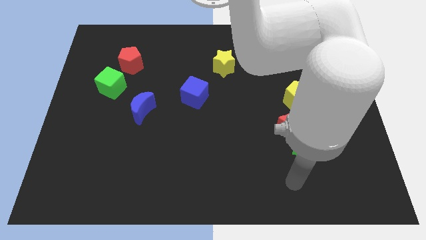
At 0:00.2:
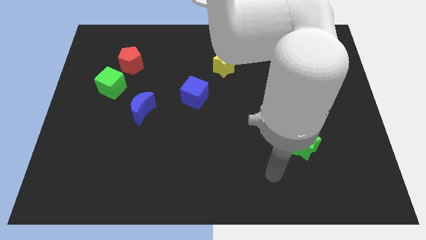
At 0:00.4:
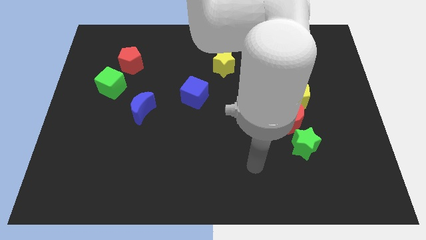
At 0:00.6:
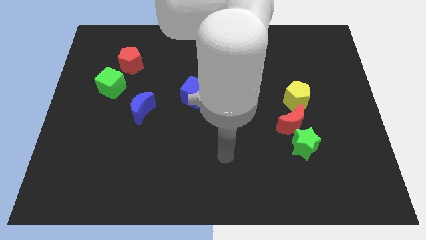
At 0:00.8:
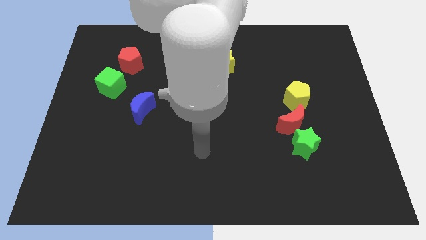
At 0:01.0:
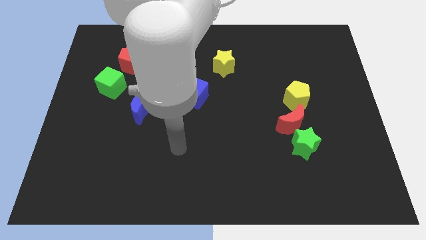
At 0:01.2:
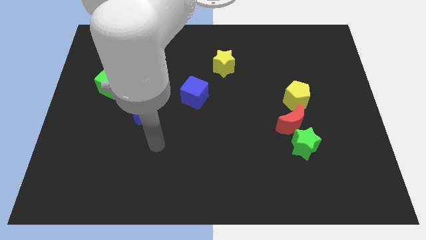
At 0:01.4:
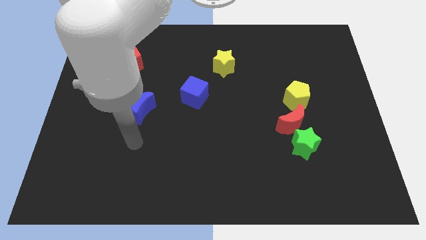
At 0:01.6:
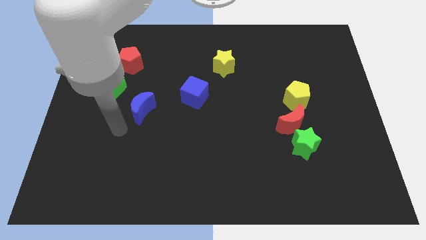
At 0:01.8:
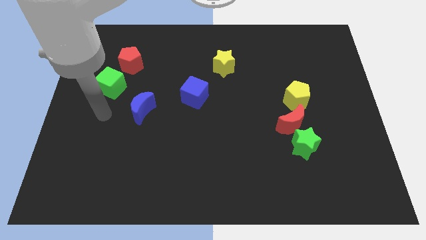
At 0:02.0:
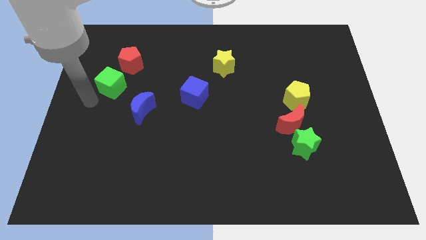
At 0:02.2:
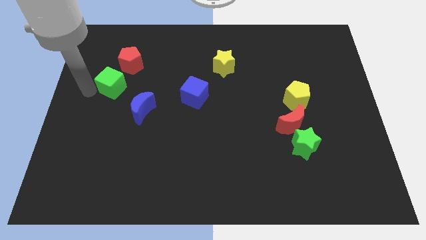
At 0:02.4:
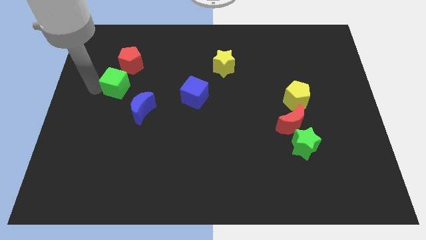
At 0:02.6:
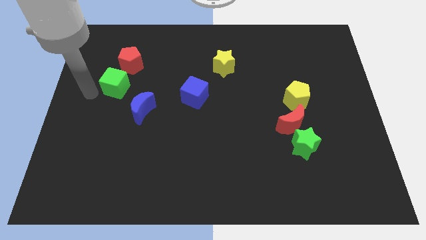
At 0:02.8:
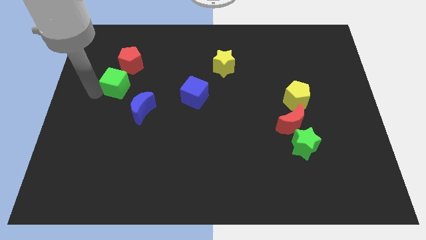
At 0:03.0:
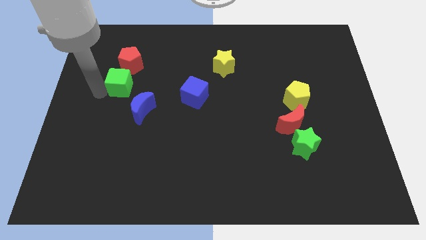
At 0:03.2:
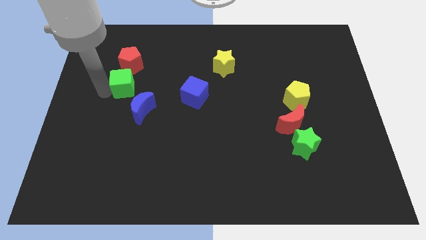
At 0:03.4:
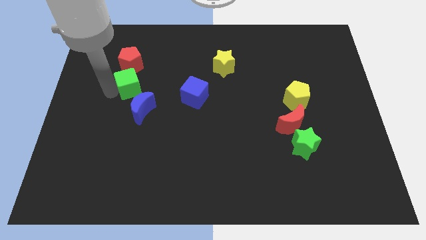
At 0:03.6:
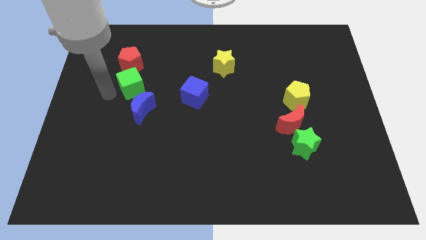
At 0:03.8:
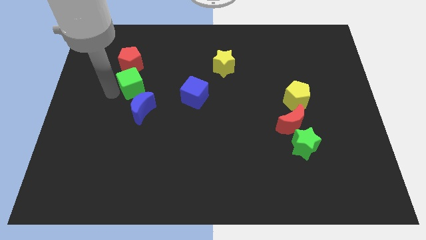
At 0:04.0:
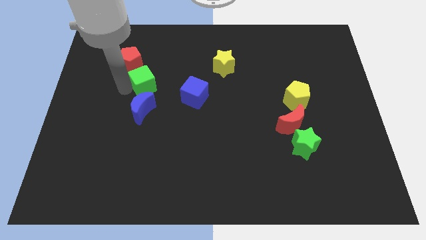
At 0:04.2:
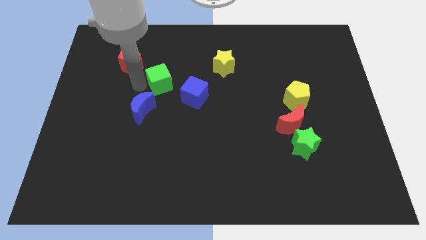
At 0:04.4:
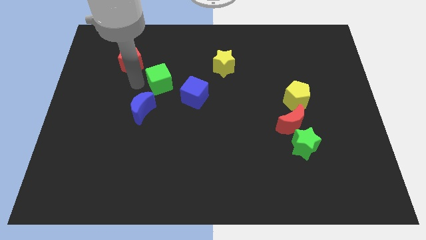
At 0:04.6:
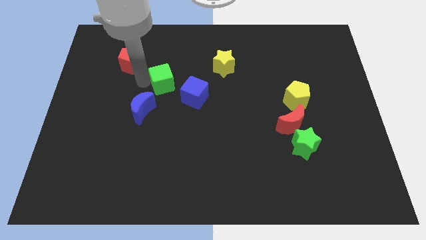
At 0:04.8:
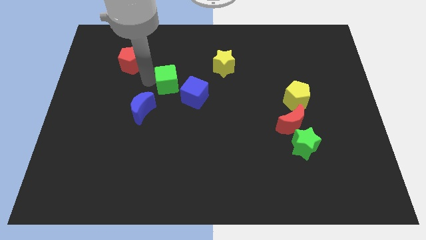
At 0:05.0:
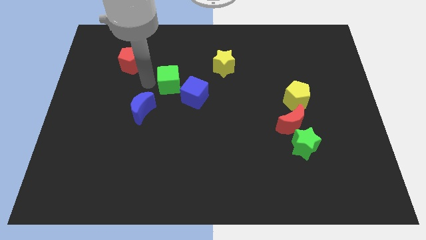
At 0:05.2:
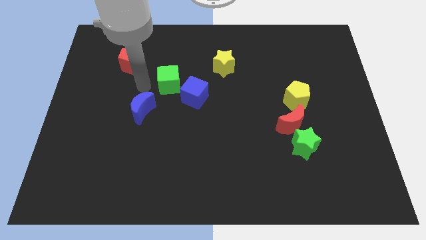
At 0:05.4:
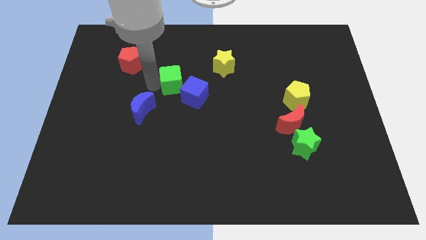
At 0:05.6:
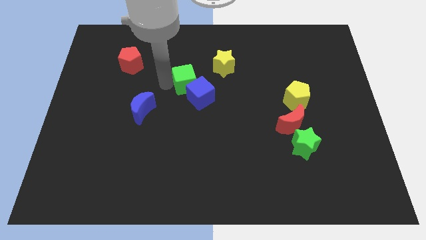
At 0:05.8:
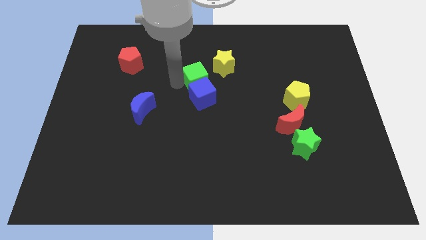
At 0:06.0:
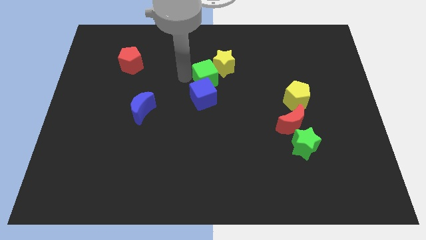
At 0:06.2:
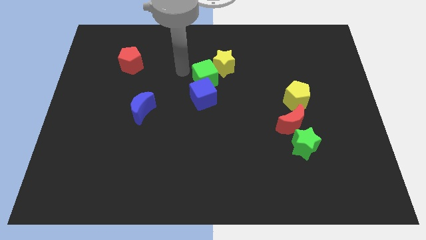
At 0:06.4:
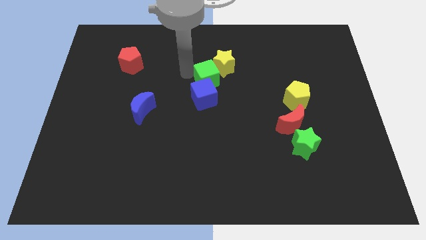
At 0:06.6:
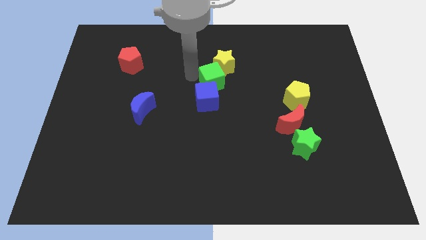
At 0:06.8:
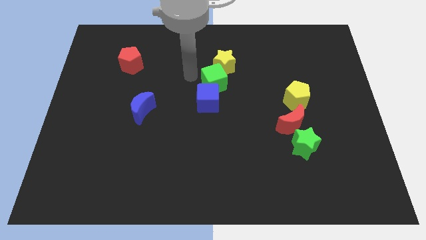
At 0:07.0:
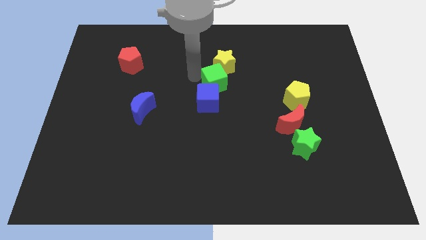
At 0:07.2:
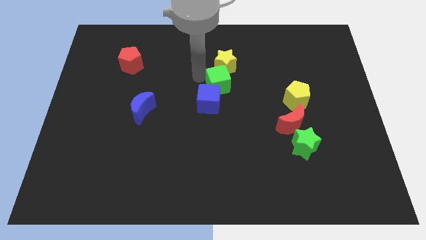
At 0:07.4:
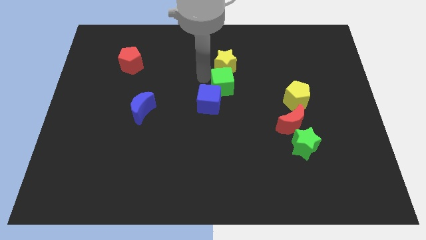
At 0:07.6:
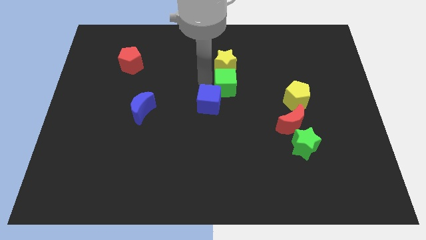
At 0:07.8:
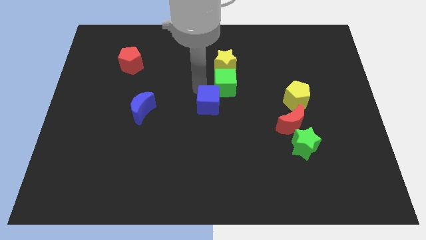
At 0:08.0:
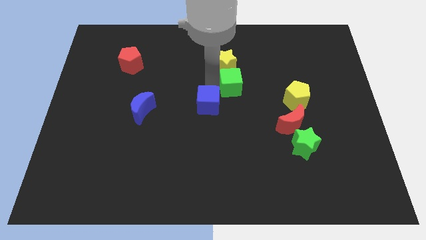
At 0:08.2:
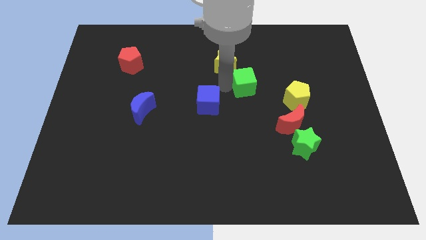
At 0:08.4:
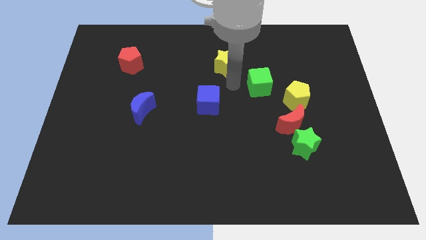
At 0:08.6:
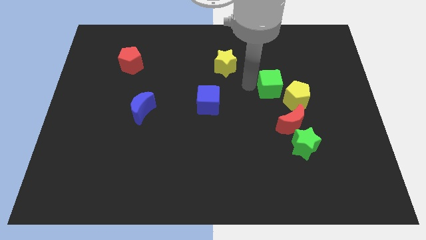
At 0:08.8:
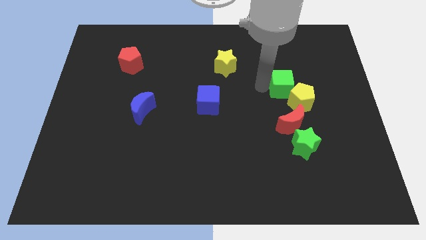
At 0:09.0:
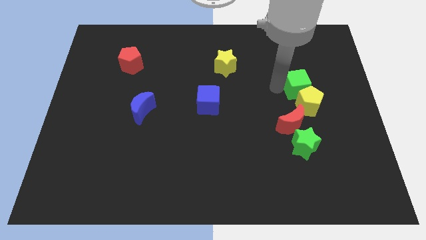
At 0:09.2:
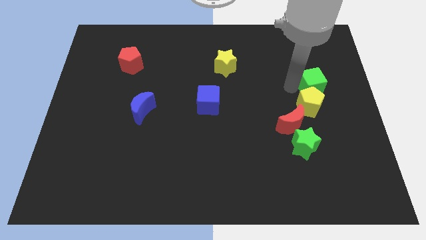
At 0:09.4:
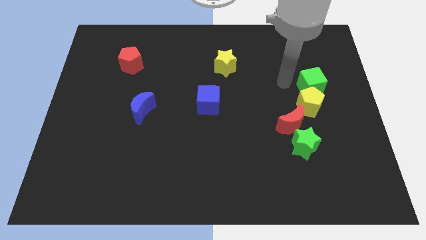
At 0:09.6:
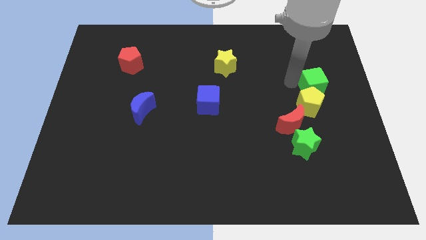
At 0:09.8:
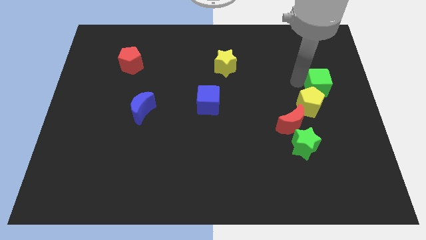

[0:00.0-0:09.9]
move the green cube to the right side of the board

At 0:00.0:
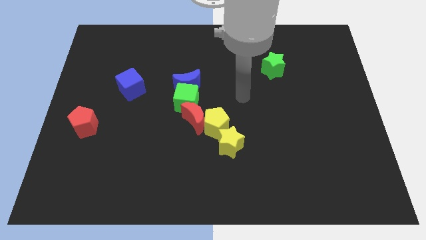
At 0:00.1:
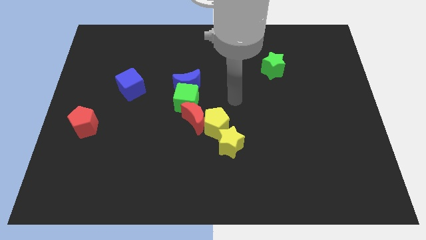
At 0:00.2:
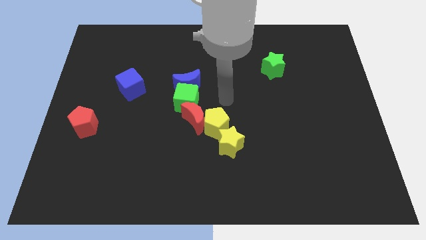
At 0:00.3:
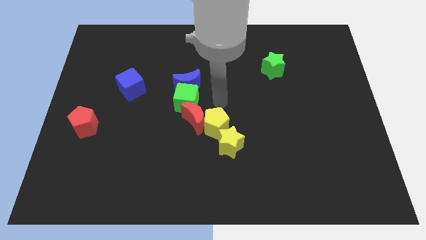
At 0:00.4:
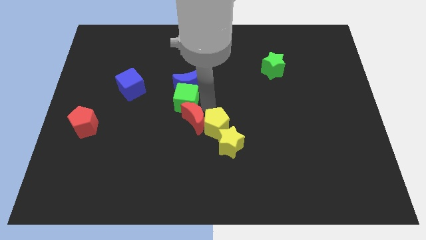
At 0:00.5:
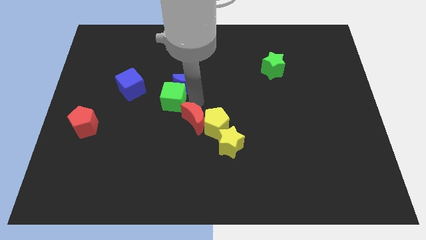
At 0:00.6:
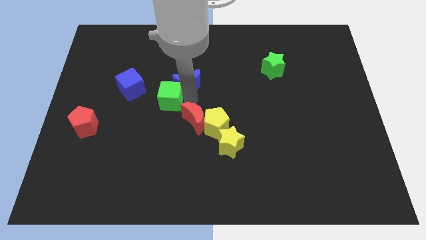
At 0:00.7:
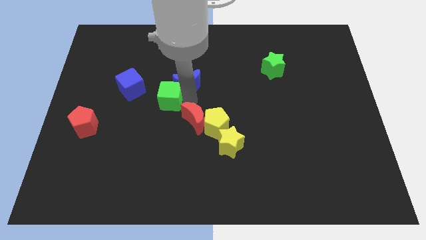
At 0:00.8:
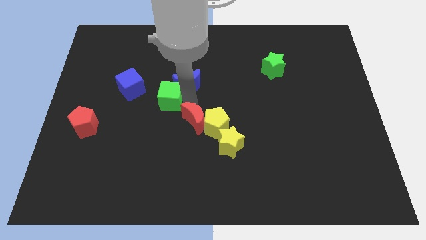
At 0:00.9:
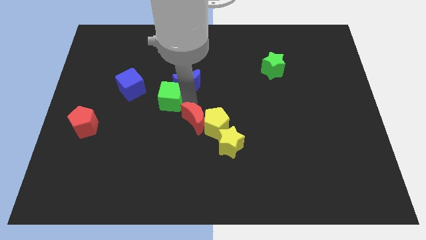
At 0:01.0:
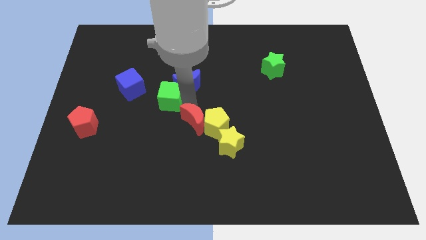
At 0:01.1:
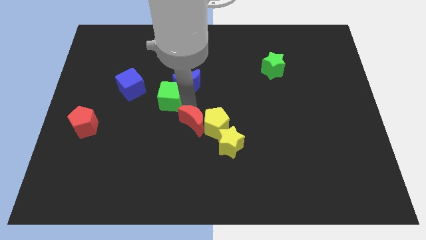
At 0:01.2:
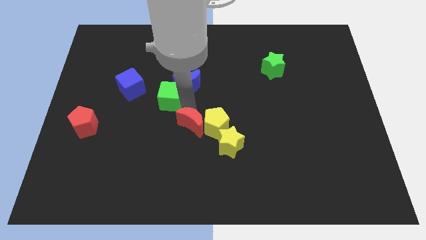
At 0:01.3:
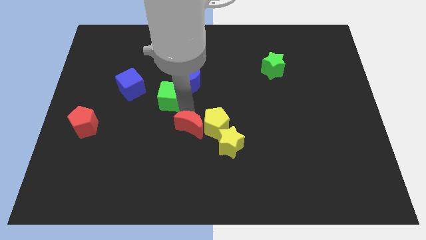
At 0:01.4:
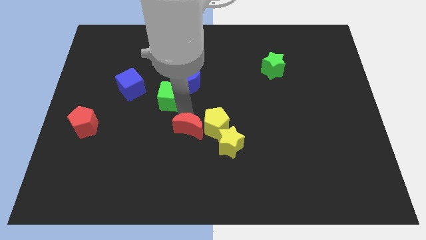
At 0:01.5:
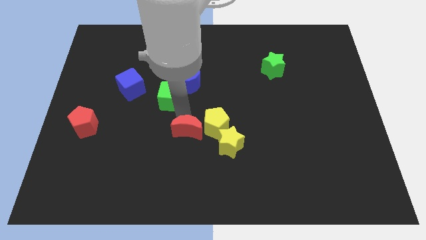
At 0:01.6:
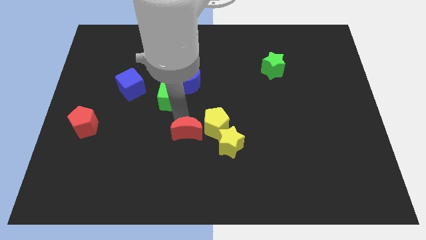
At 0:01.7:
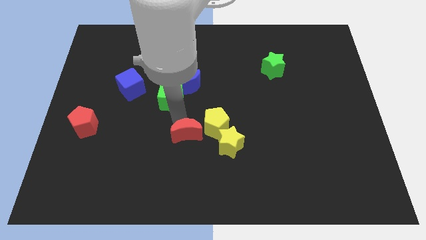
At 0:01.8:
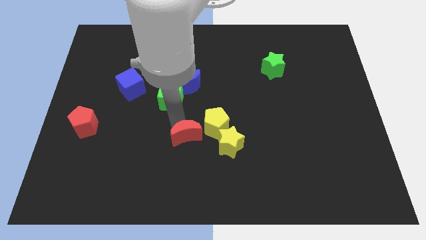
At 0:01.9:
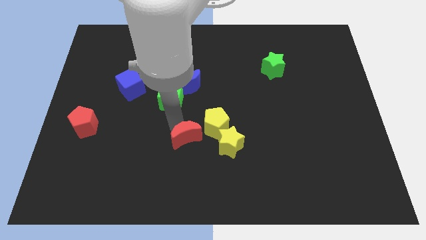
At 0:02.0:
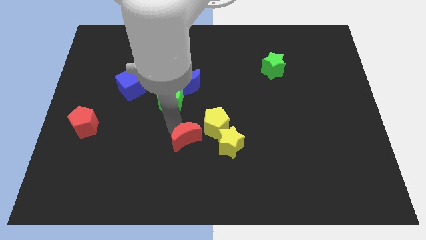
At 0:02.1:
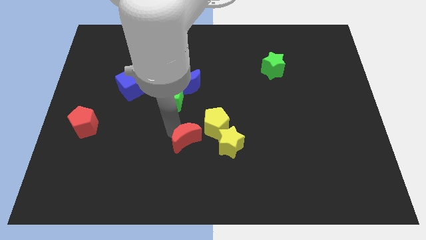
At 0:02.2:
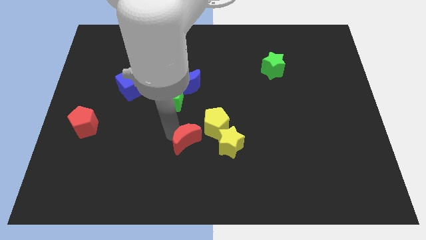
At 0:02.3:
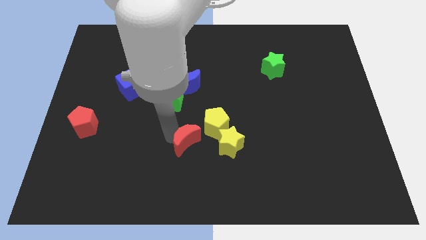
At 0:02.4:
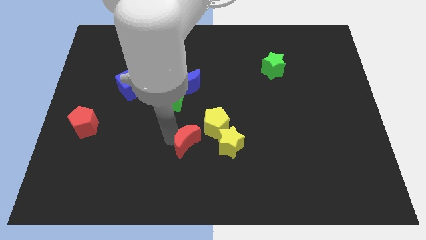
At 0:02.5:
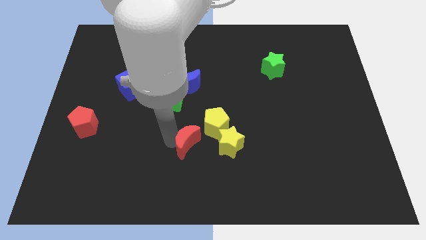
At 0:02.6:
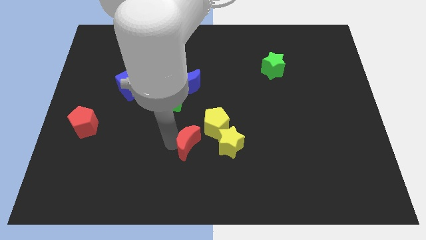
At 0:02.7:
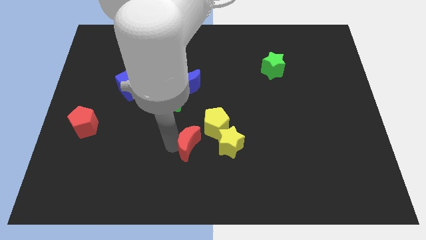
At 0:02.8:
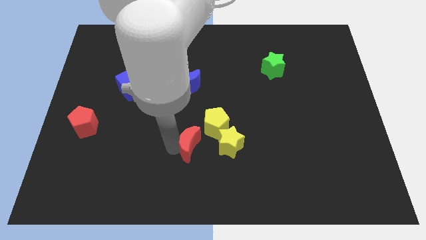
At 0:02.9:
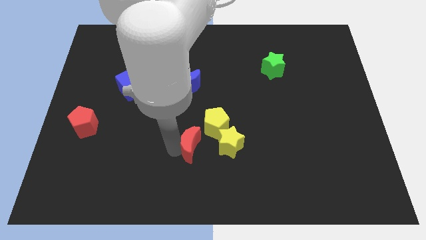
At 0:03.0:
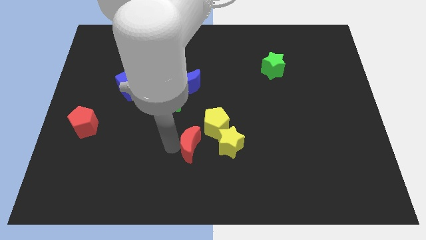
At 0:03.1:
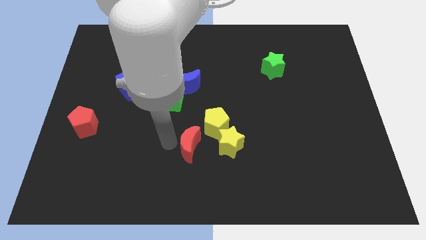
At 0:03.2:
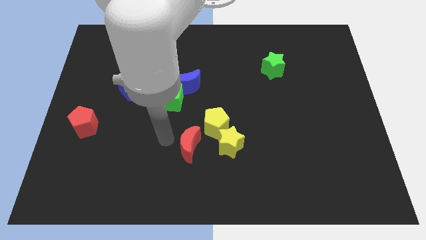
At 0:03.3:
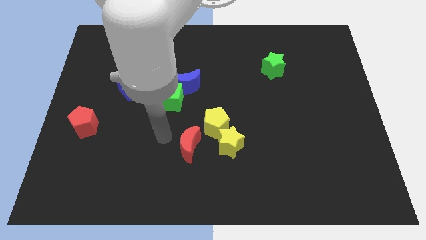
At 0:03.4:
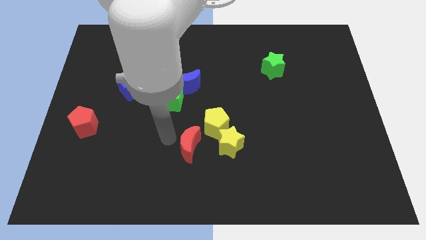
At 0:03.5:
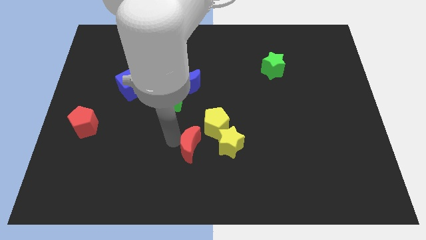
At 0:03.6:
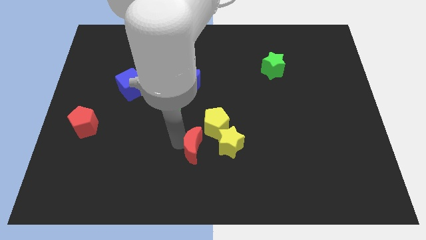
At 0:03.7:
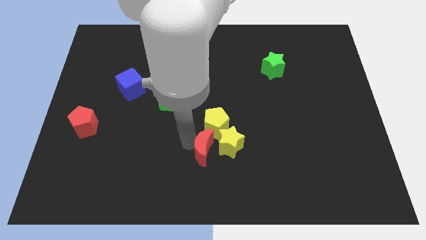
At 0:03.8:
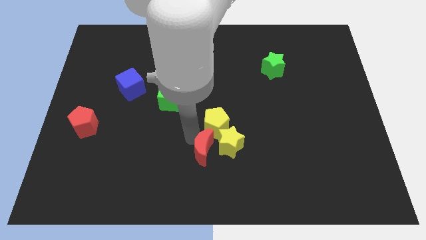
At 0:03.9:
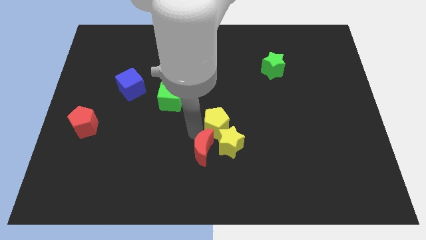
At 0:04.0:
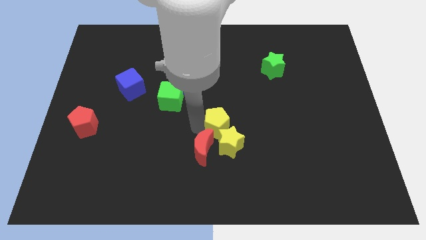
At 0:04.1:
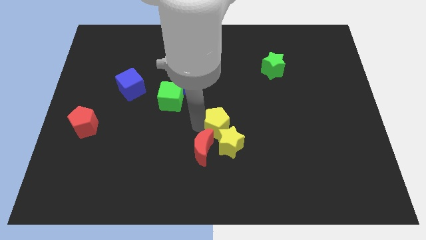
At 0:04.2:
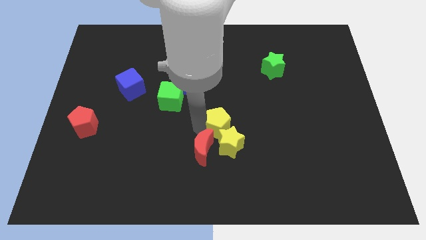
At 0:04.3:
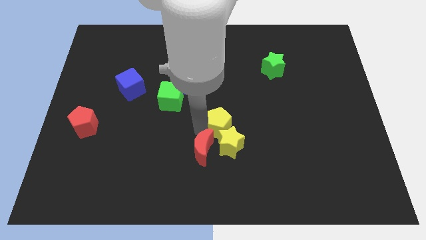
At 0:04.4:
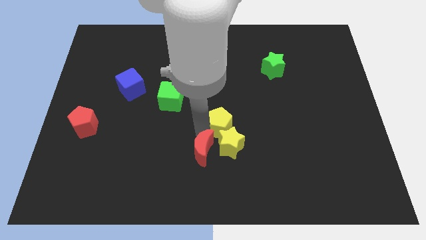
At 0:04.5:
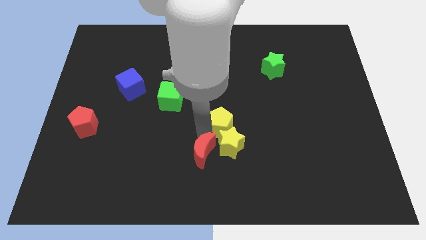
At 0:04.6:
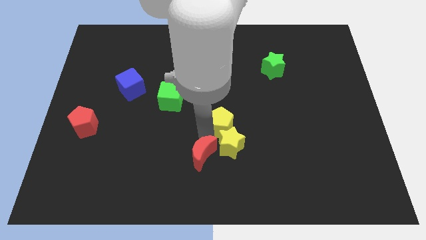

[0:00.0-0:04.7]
put the red moon to the bottom
